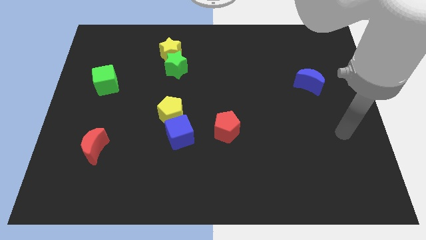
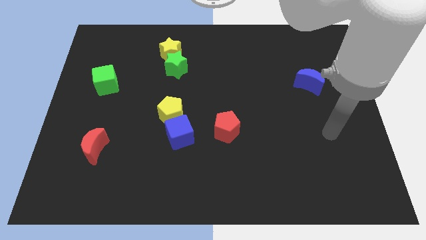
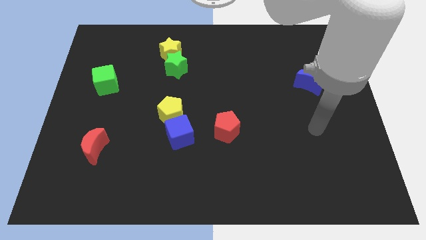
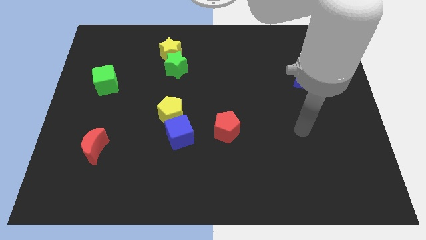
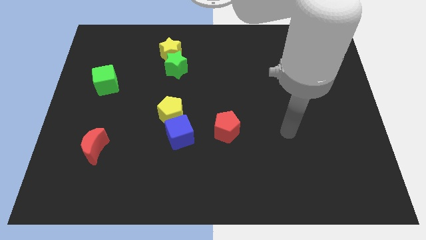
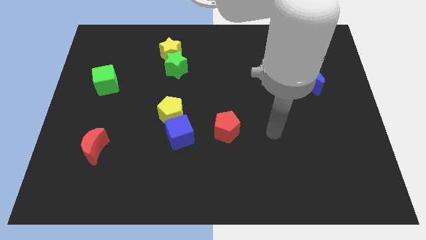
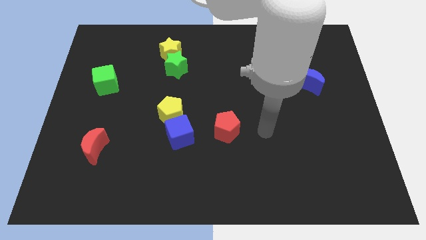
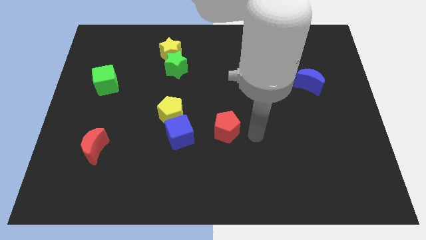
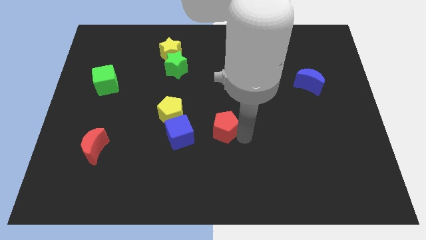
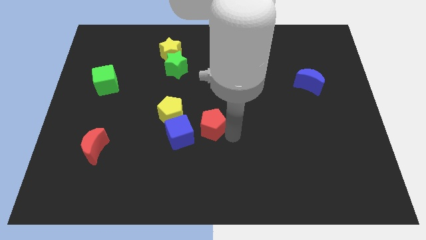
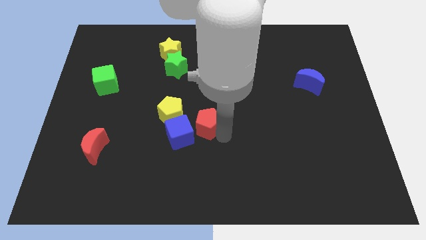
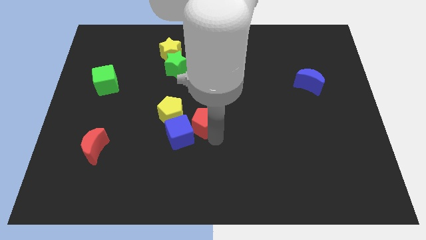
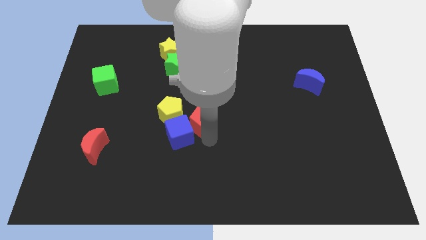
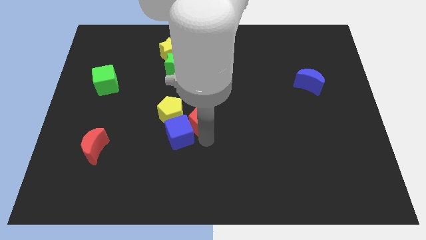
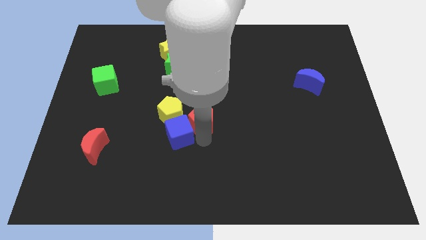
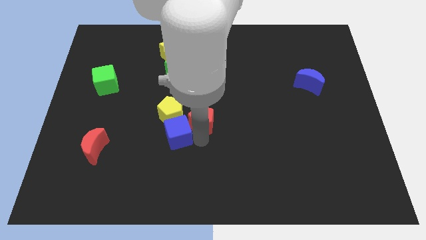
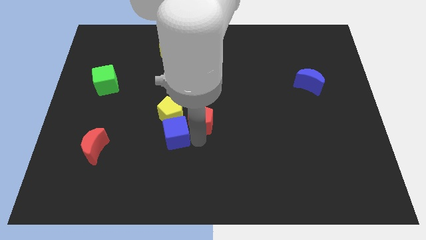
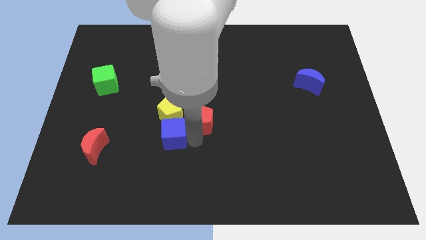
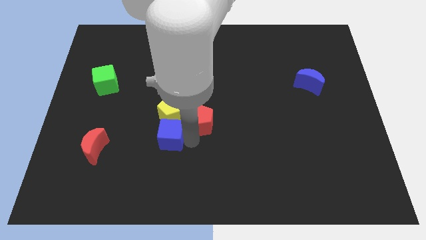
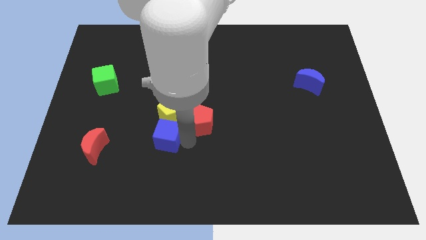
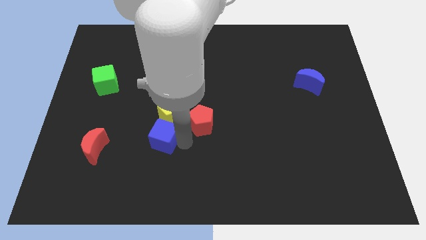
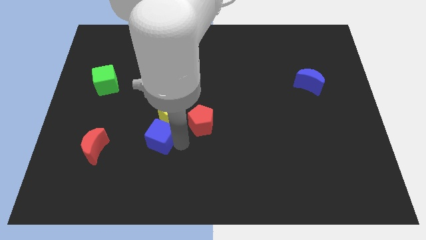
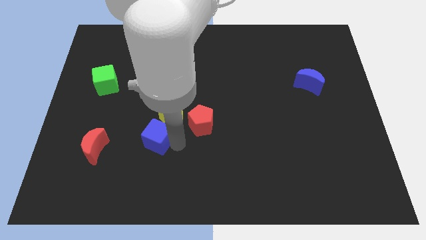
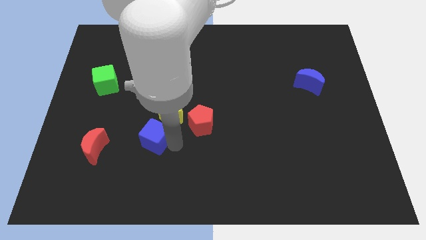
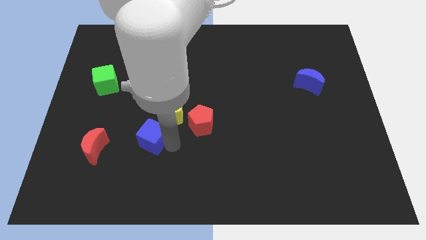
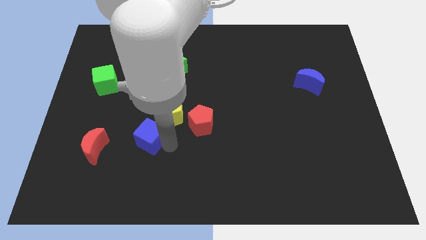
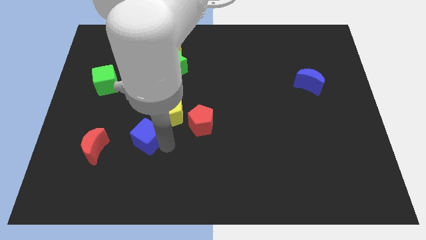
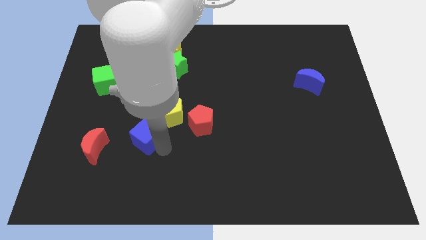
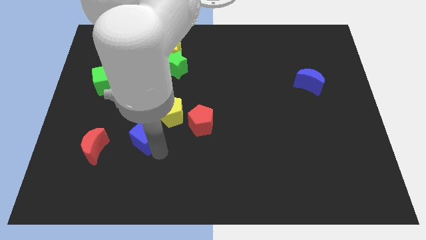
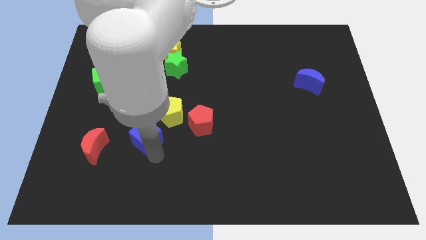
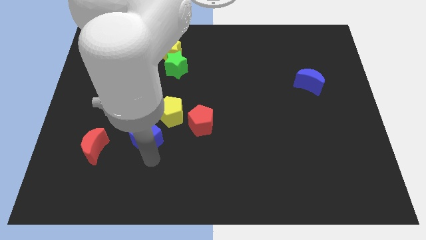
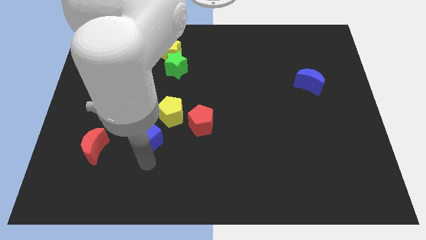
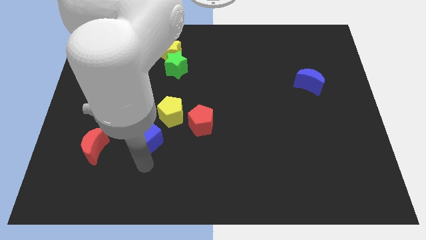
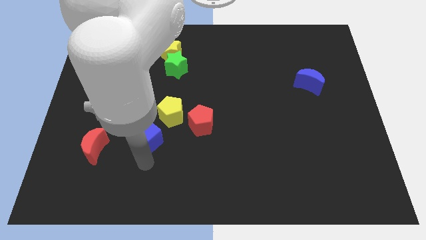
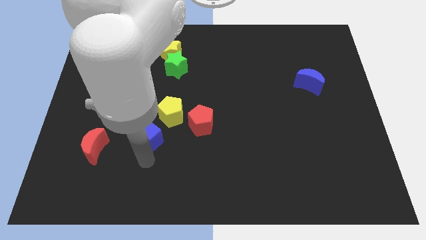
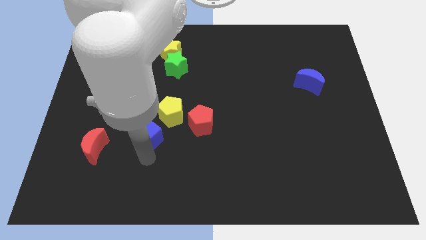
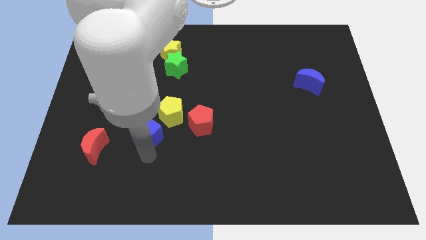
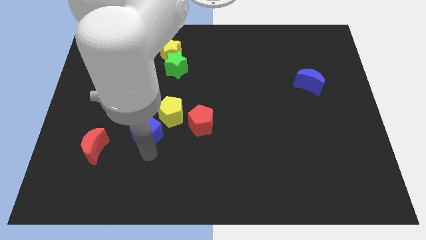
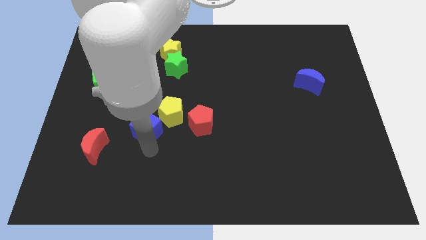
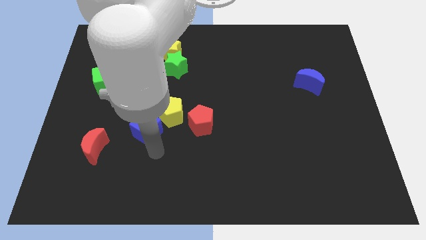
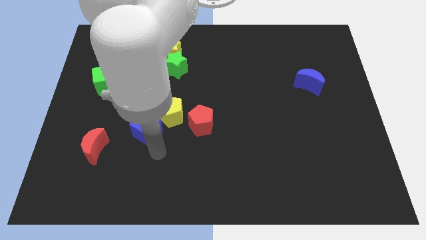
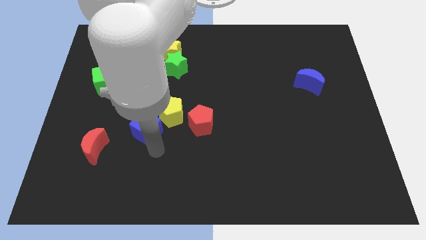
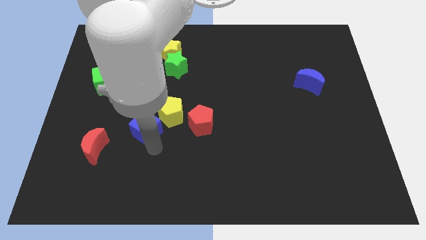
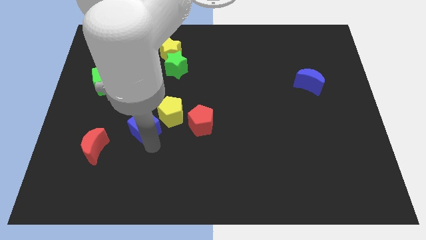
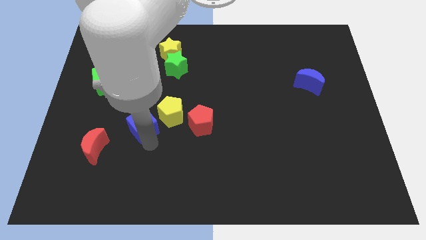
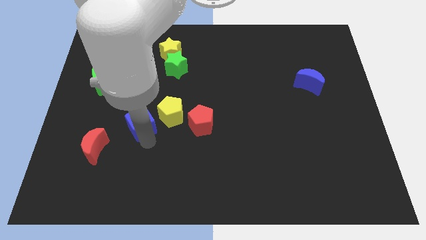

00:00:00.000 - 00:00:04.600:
slightly slide the blue cube upwards and left diagonally

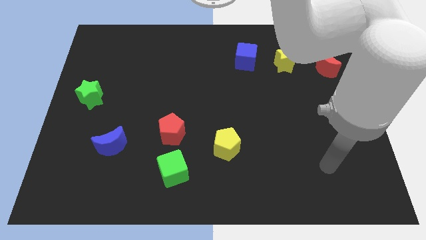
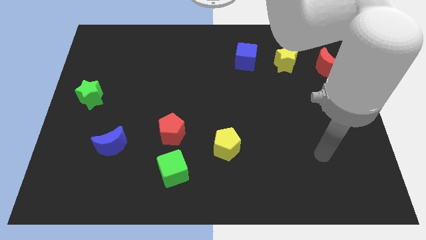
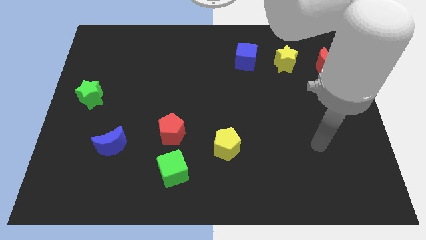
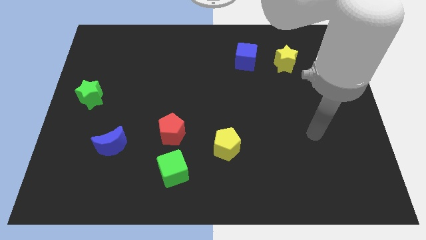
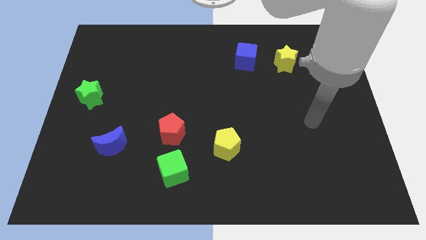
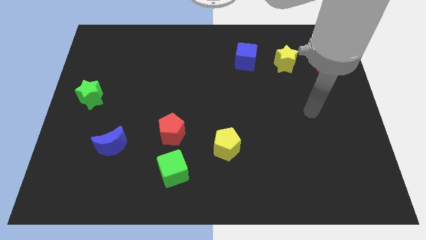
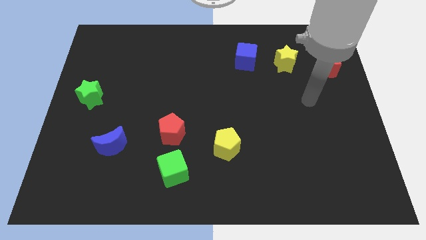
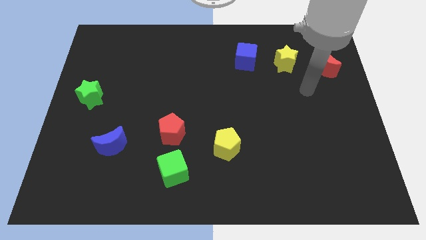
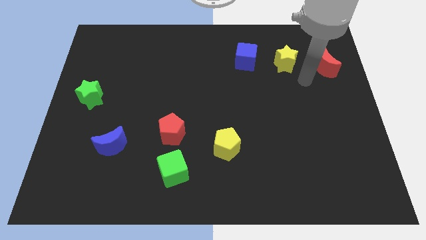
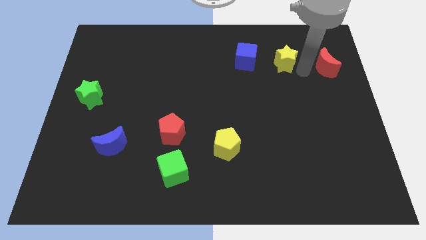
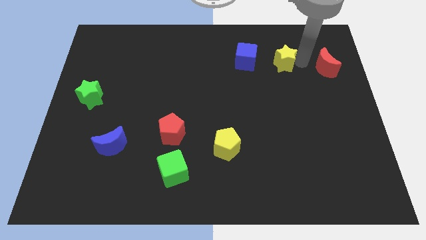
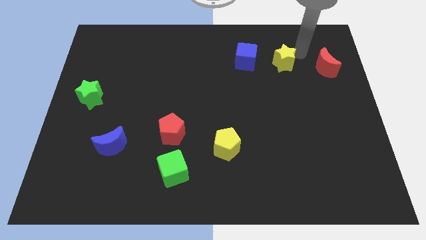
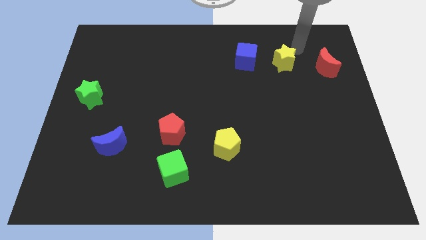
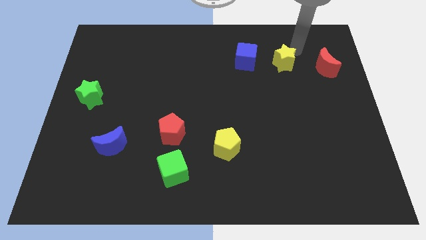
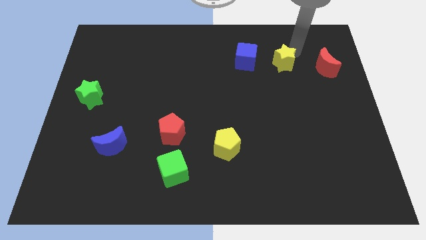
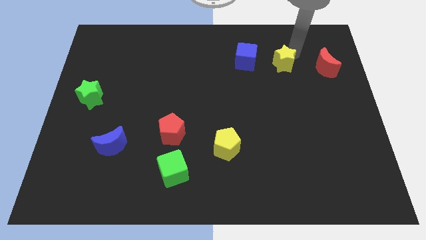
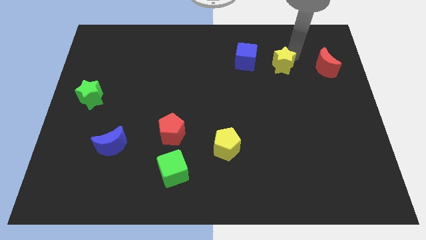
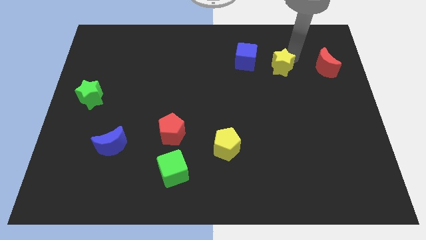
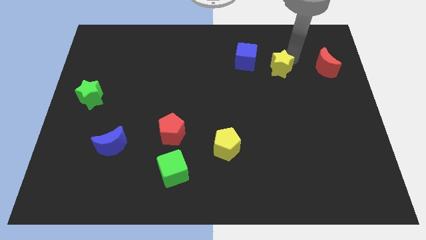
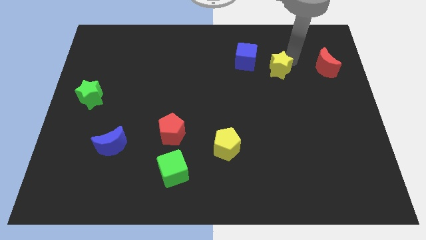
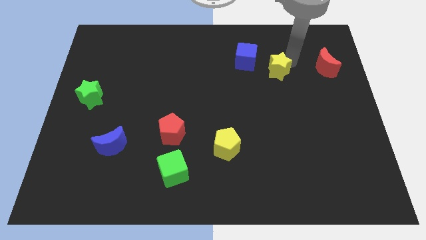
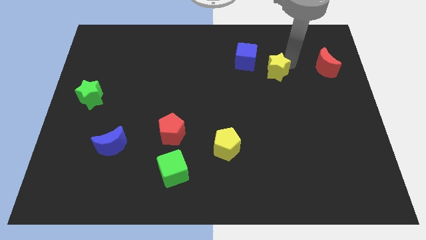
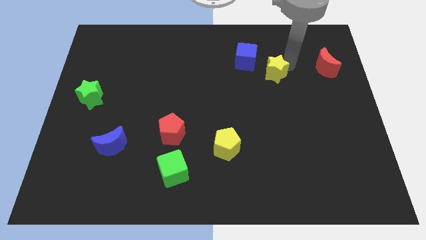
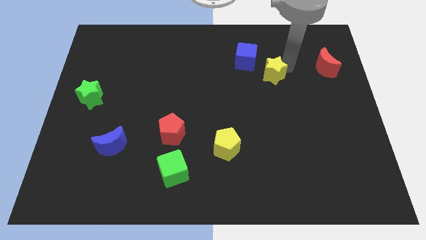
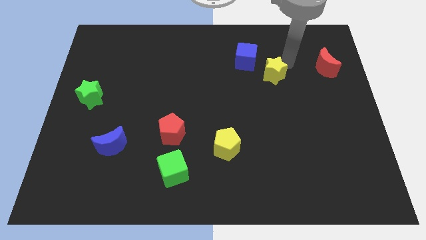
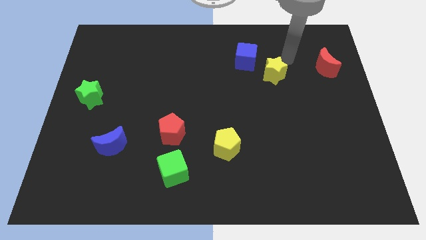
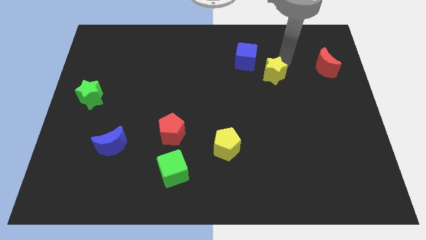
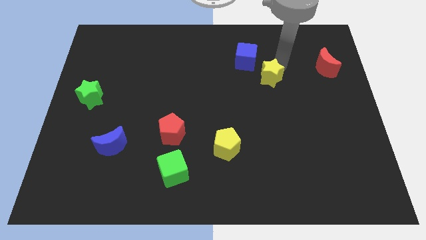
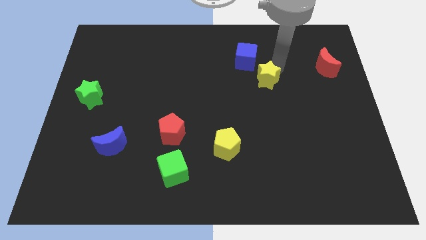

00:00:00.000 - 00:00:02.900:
slightly move the yellow star diagonally downwards and to the left

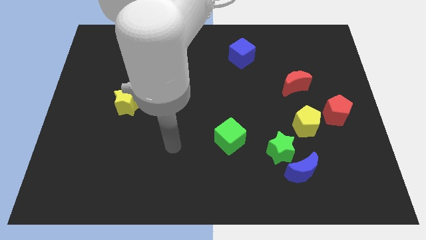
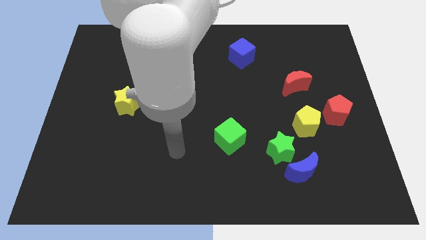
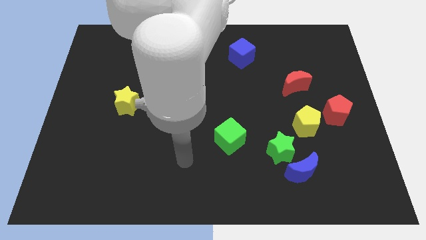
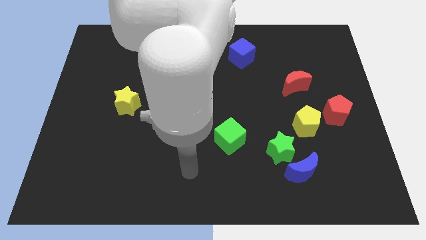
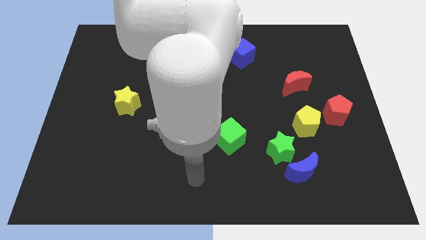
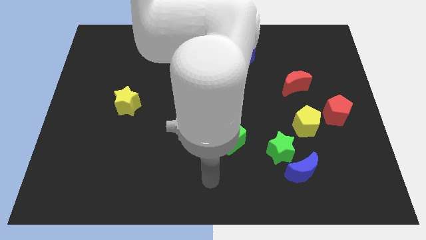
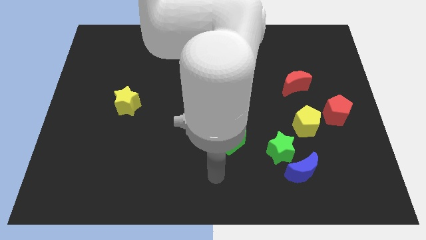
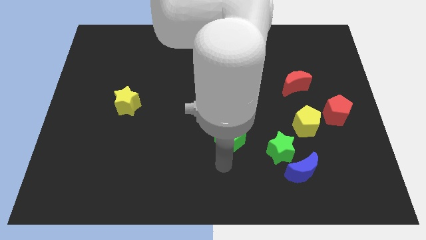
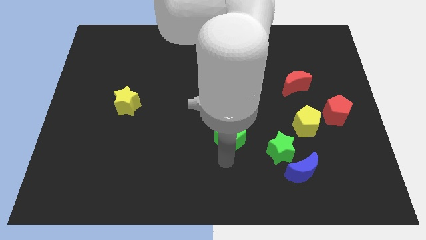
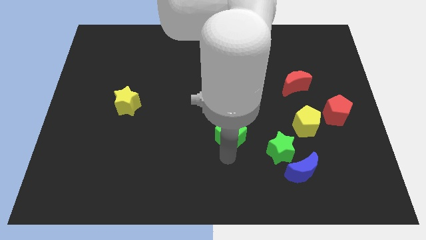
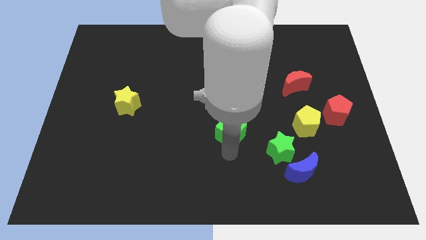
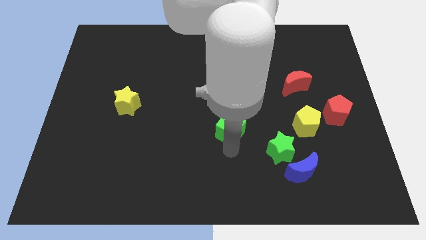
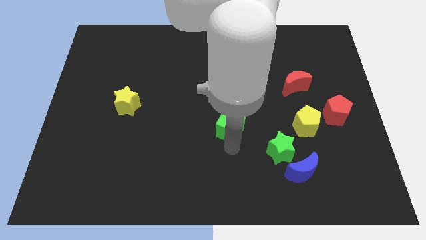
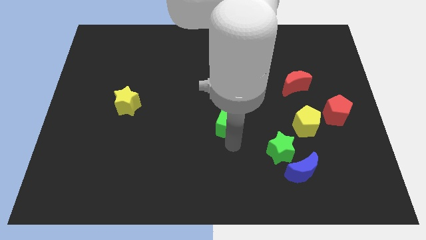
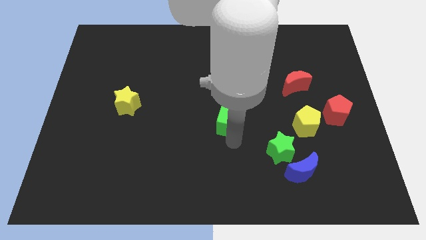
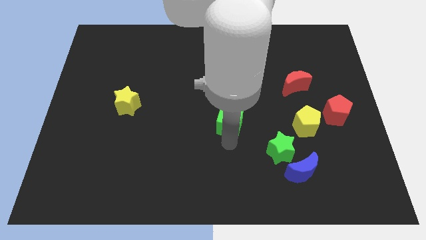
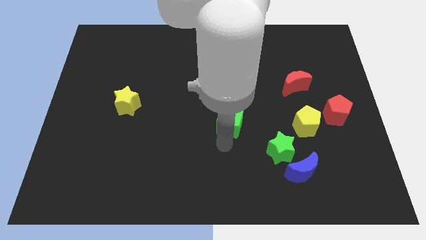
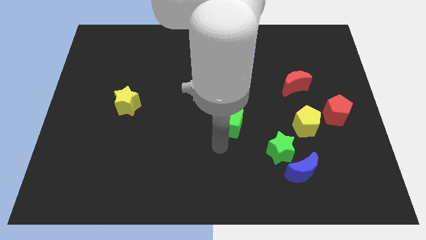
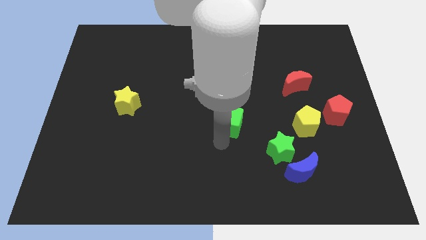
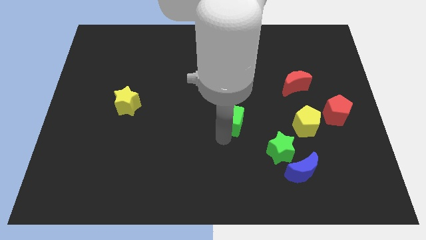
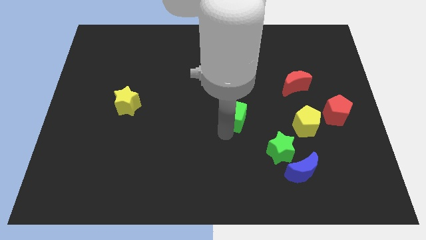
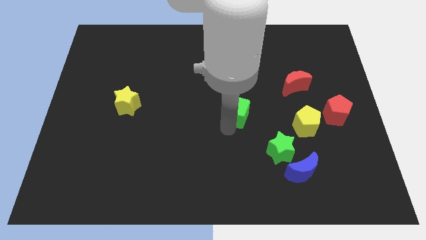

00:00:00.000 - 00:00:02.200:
slide the green cube up somewhat
